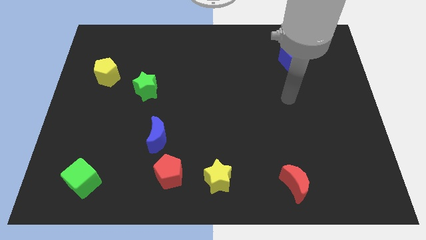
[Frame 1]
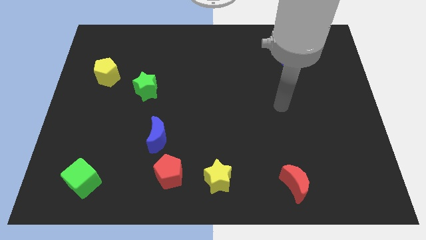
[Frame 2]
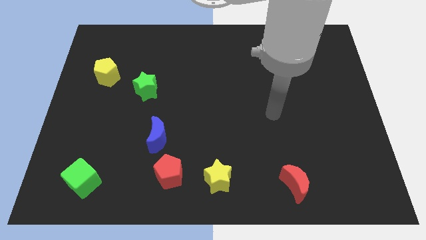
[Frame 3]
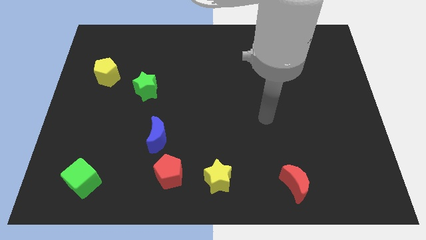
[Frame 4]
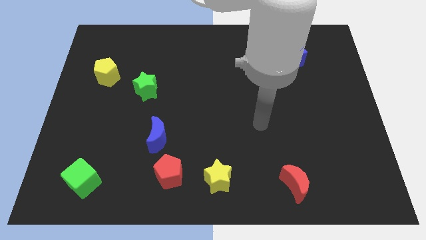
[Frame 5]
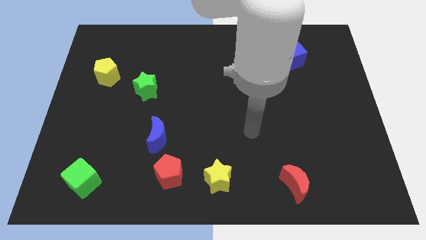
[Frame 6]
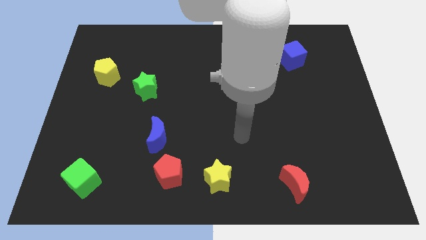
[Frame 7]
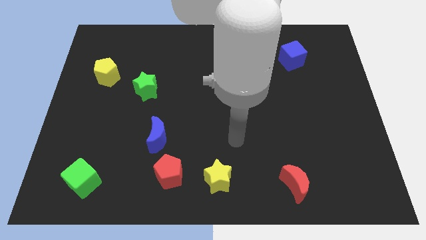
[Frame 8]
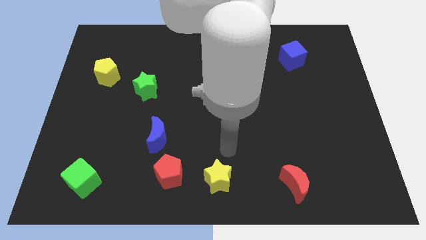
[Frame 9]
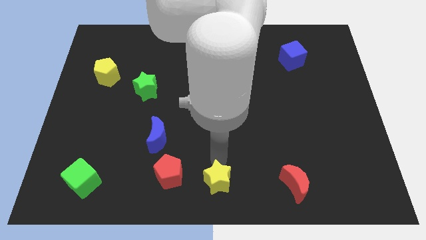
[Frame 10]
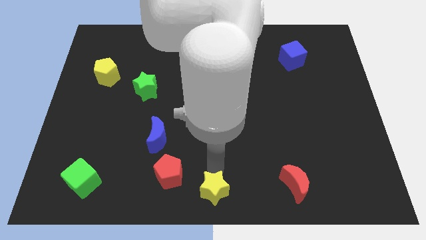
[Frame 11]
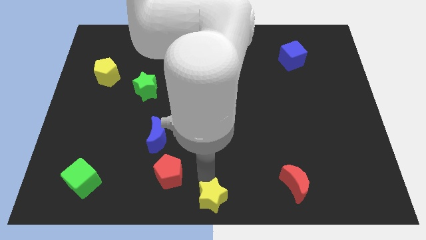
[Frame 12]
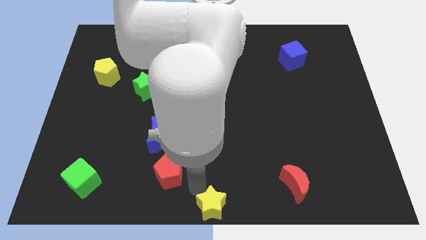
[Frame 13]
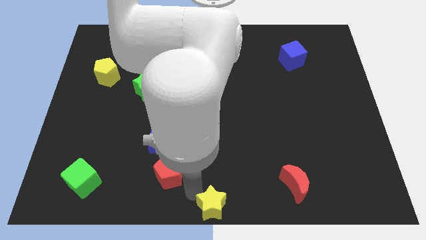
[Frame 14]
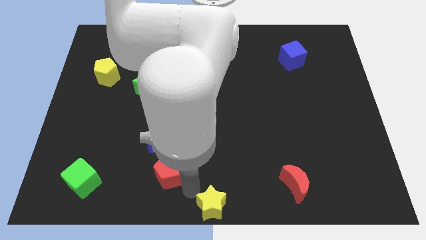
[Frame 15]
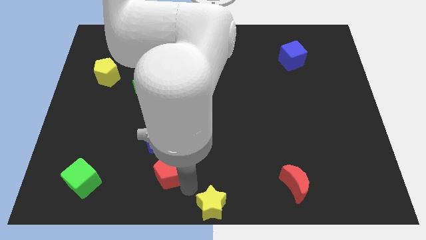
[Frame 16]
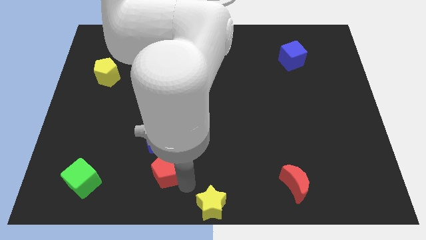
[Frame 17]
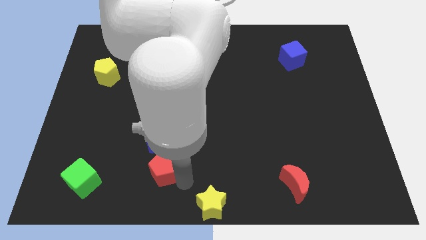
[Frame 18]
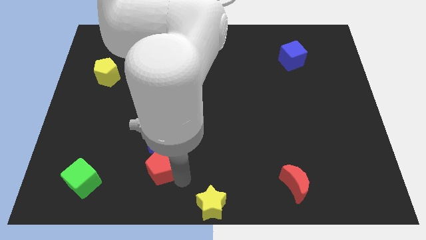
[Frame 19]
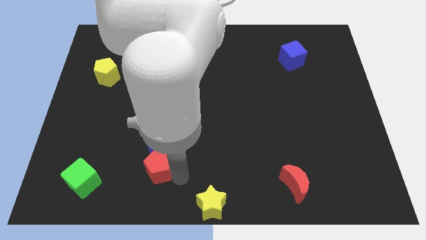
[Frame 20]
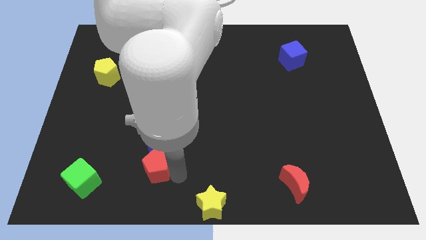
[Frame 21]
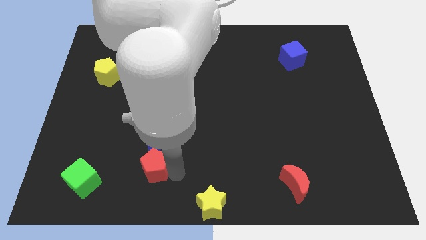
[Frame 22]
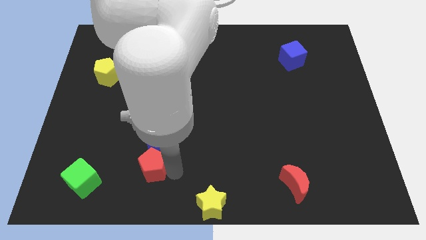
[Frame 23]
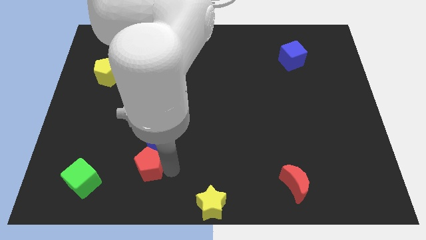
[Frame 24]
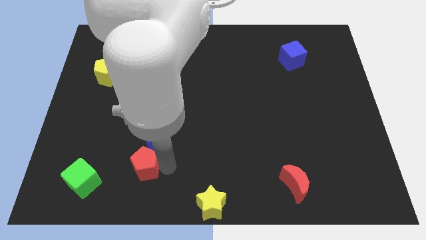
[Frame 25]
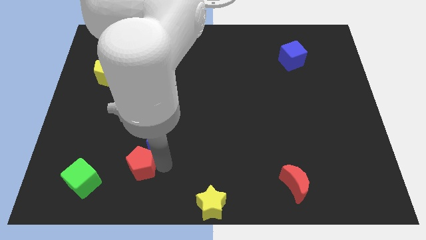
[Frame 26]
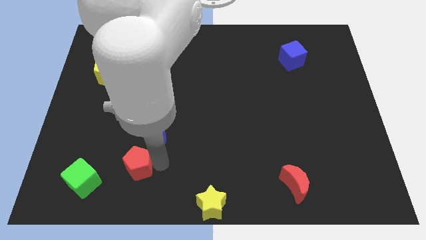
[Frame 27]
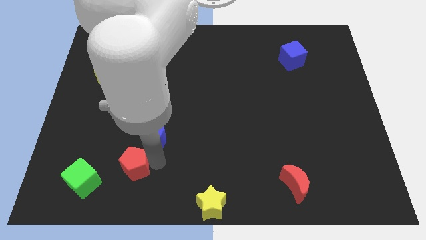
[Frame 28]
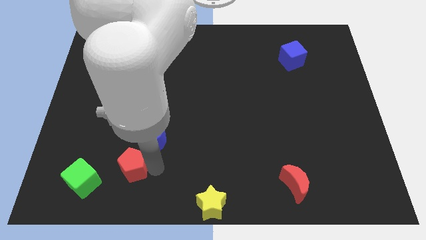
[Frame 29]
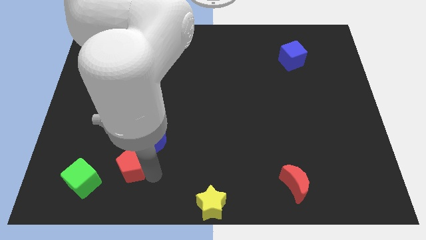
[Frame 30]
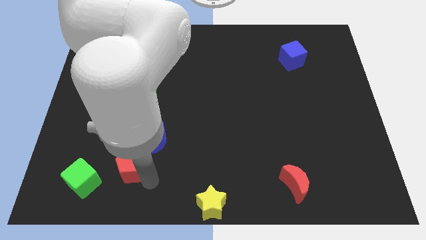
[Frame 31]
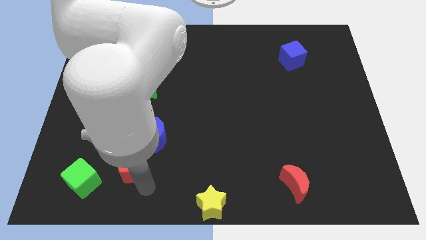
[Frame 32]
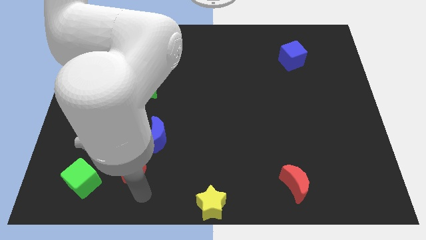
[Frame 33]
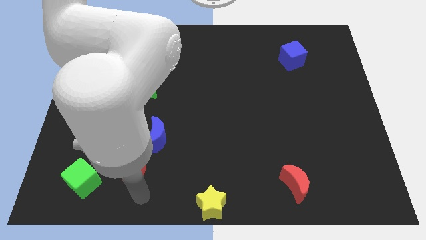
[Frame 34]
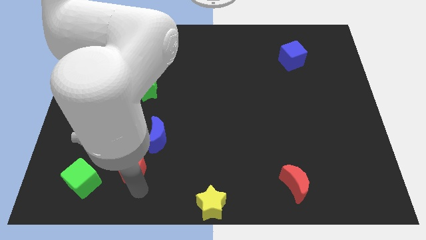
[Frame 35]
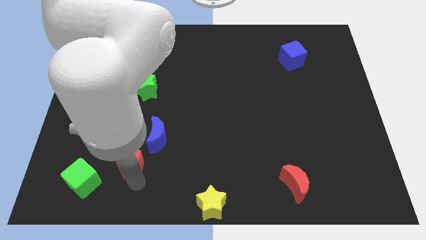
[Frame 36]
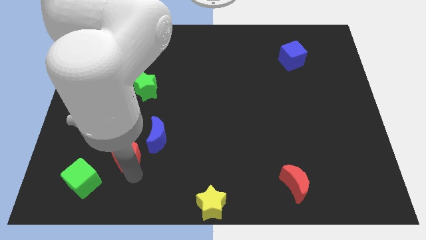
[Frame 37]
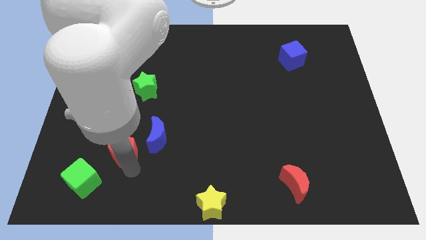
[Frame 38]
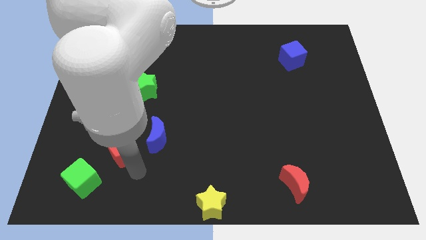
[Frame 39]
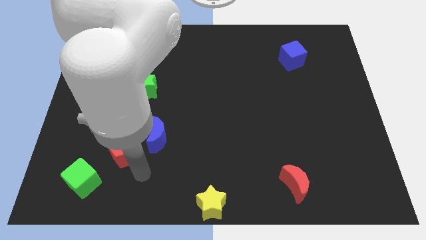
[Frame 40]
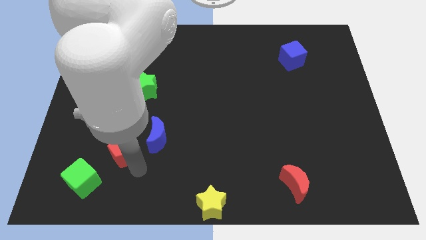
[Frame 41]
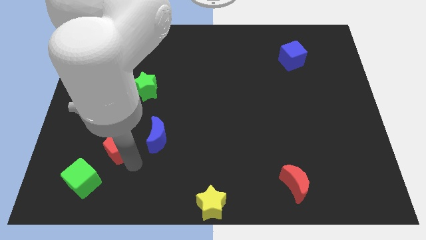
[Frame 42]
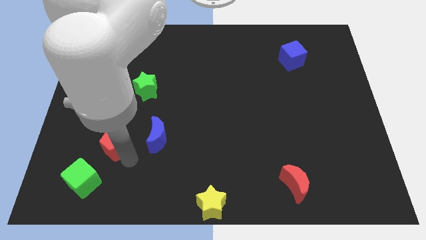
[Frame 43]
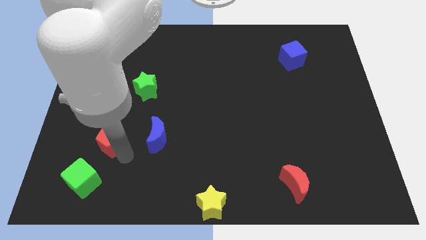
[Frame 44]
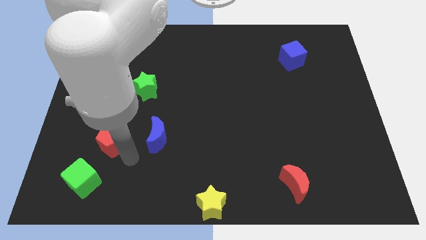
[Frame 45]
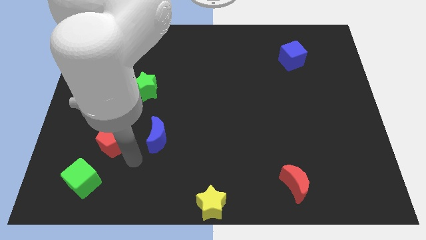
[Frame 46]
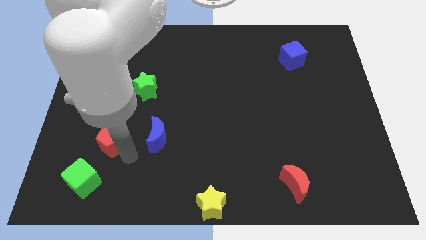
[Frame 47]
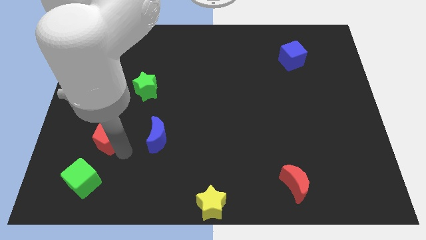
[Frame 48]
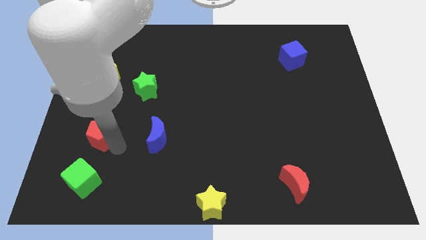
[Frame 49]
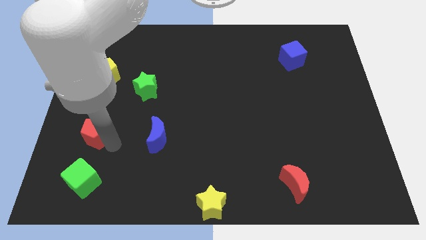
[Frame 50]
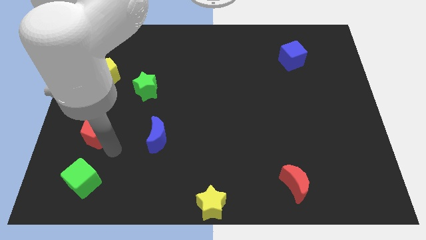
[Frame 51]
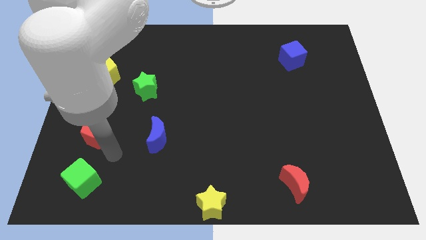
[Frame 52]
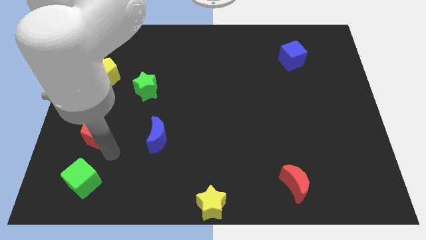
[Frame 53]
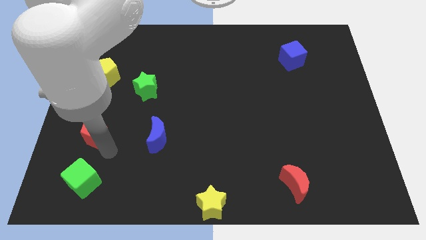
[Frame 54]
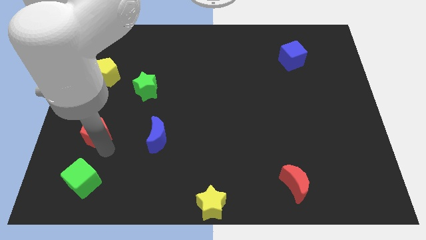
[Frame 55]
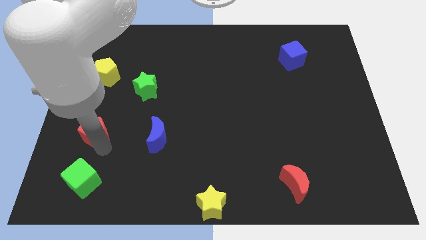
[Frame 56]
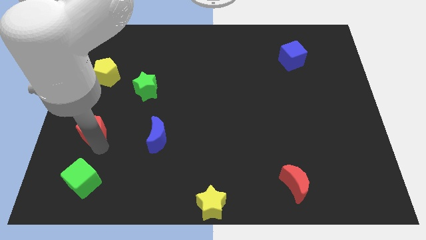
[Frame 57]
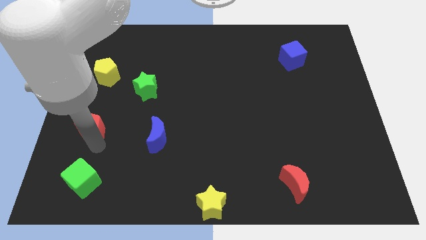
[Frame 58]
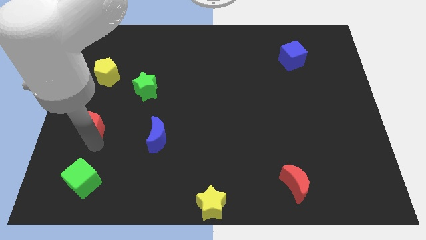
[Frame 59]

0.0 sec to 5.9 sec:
push the red pentagon to the center left

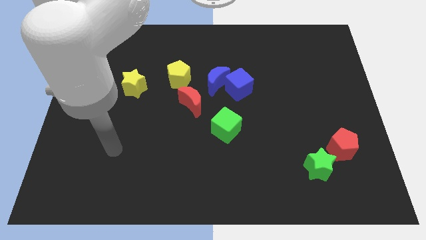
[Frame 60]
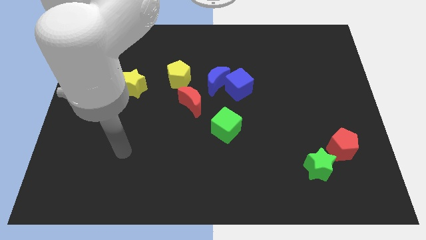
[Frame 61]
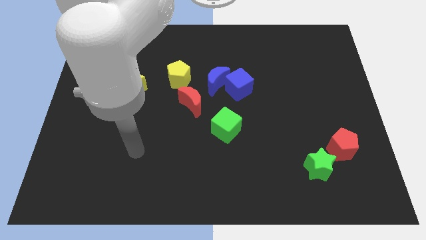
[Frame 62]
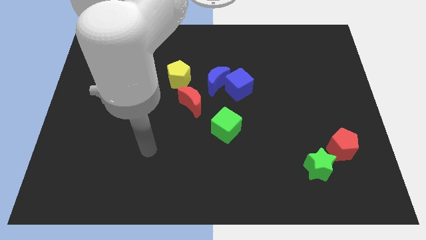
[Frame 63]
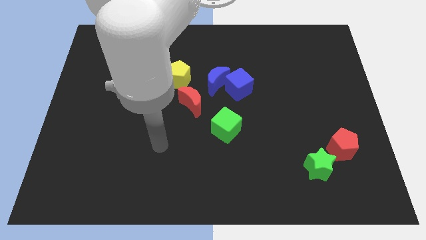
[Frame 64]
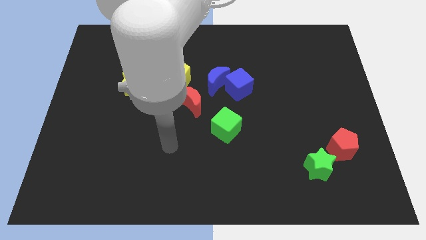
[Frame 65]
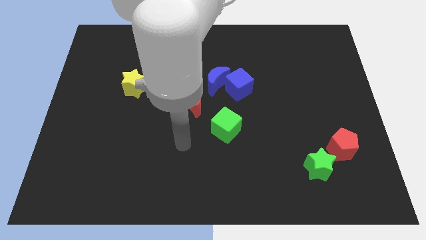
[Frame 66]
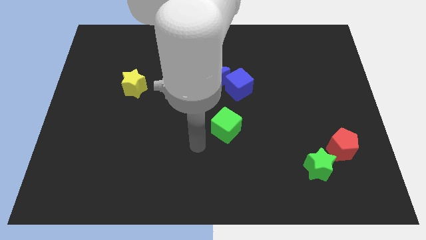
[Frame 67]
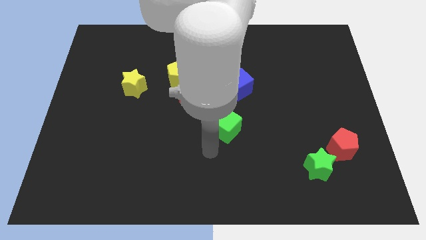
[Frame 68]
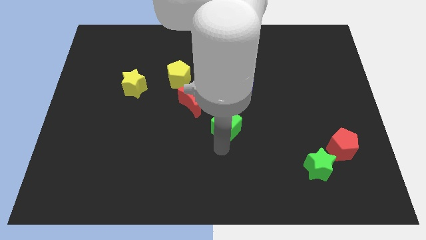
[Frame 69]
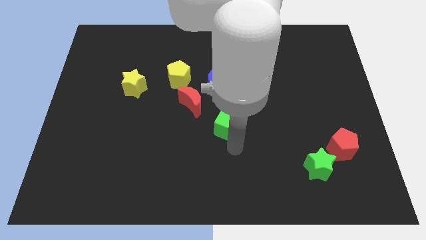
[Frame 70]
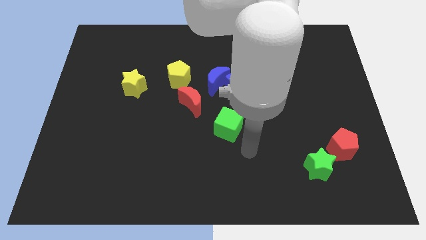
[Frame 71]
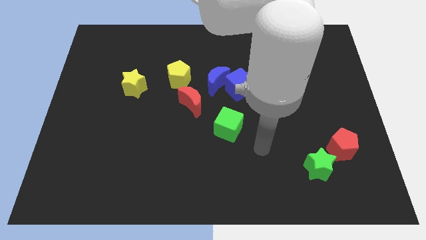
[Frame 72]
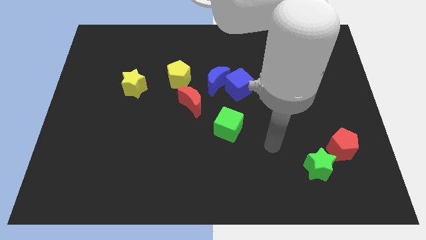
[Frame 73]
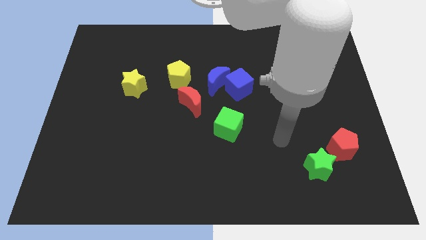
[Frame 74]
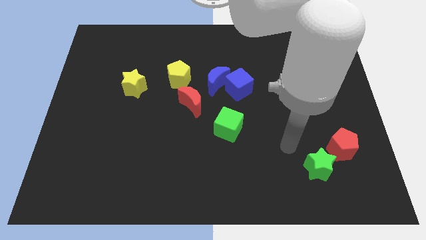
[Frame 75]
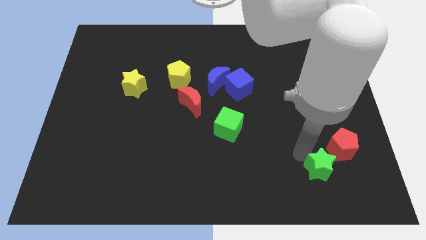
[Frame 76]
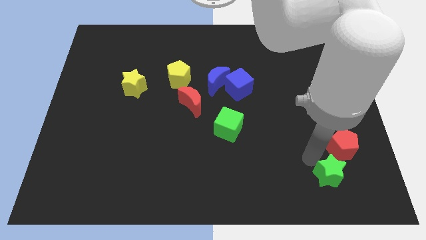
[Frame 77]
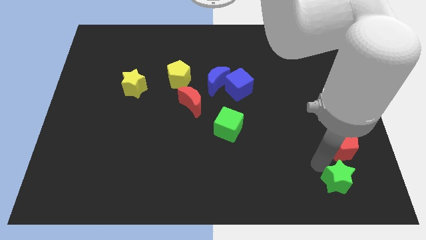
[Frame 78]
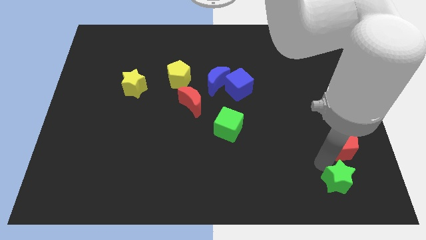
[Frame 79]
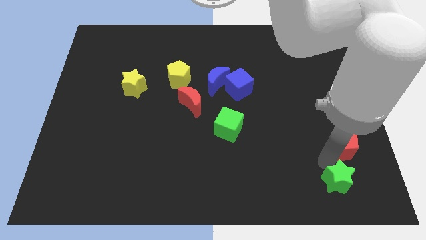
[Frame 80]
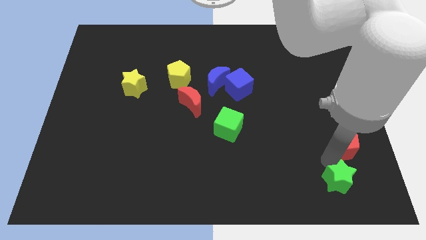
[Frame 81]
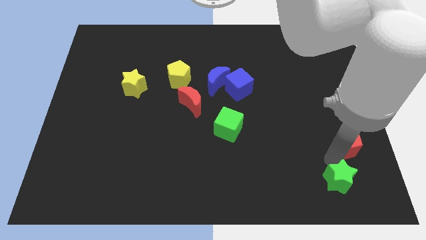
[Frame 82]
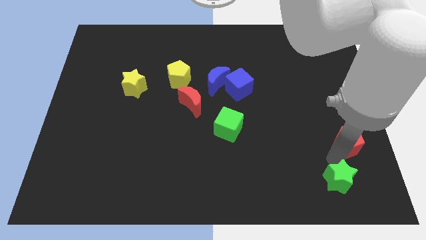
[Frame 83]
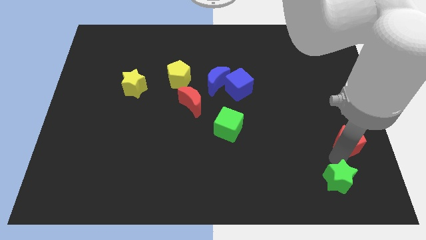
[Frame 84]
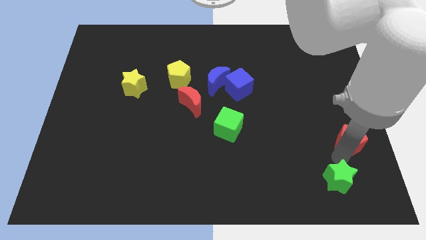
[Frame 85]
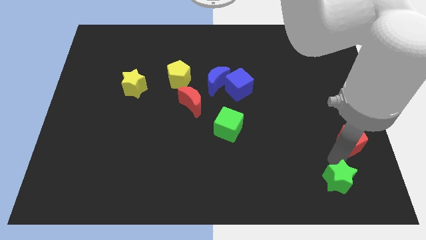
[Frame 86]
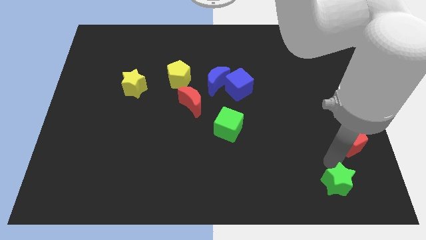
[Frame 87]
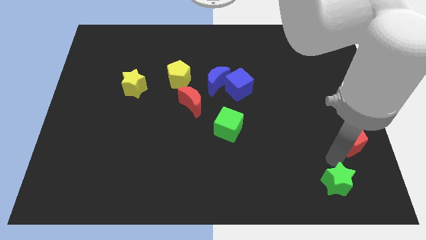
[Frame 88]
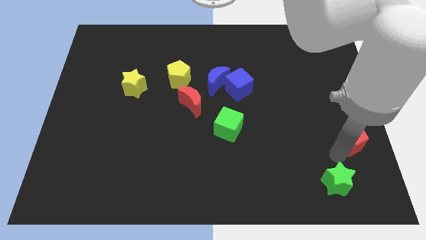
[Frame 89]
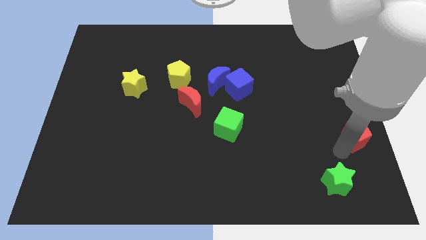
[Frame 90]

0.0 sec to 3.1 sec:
move the red pentagon to the right side of the board
